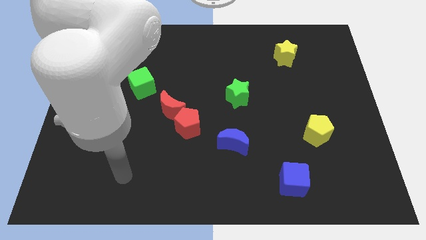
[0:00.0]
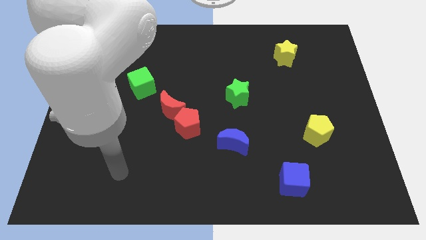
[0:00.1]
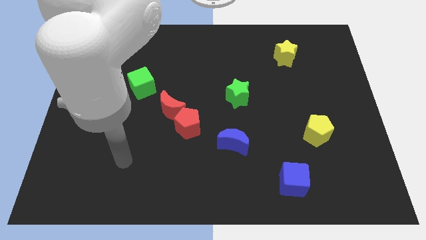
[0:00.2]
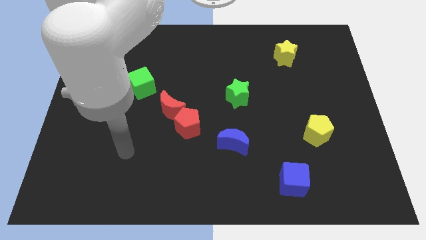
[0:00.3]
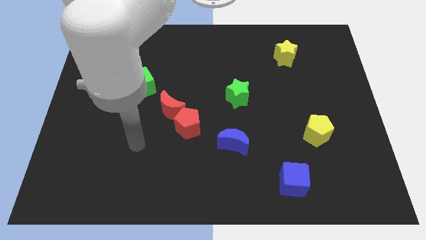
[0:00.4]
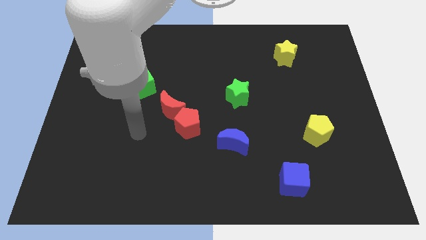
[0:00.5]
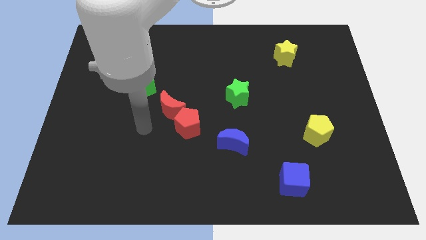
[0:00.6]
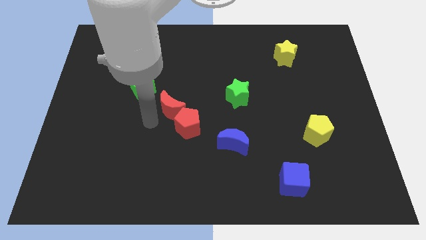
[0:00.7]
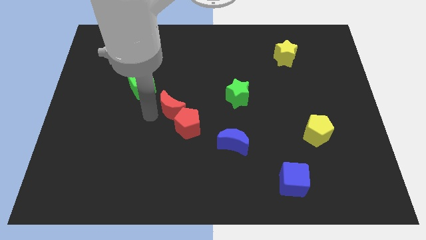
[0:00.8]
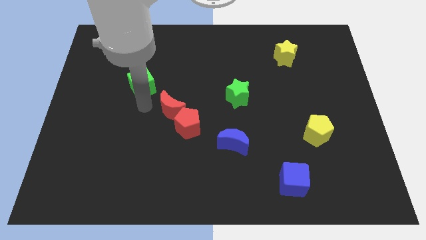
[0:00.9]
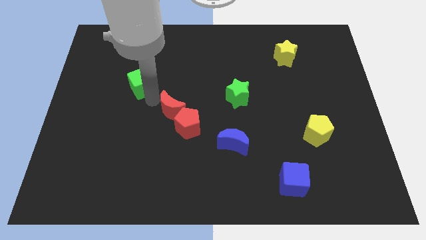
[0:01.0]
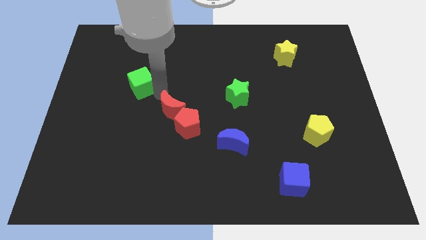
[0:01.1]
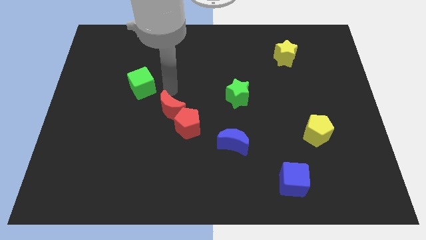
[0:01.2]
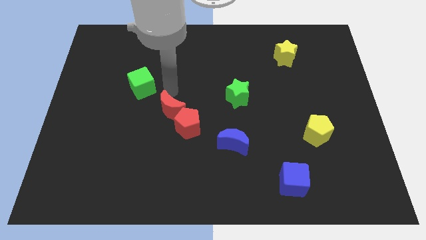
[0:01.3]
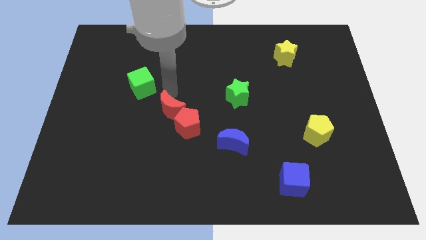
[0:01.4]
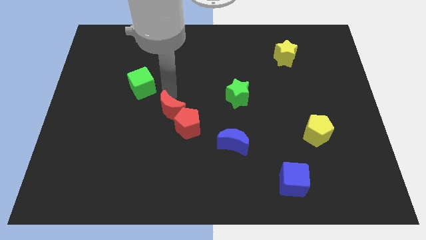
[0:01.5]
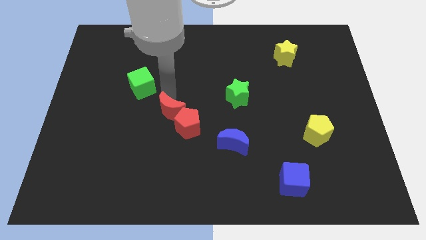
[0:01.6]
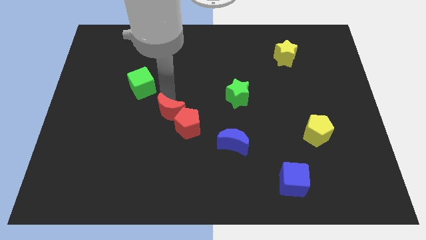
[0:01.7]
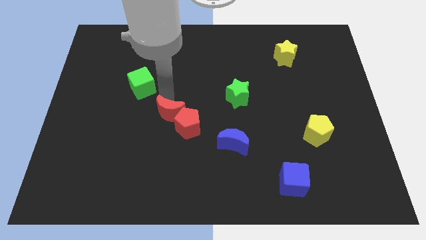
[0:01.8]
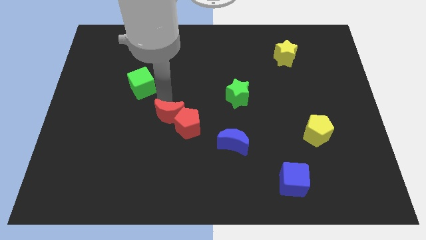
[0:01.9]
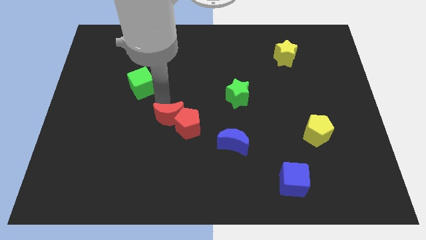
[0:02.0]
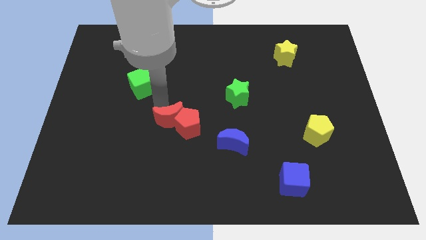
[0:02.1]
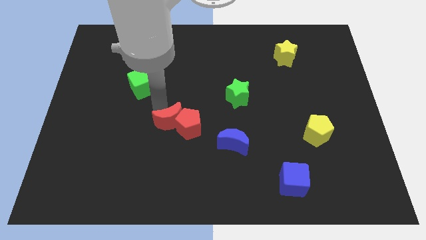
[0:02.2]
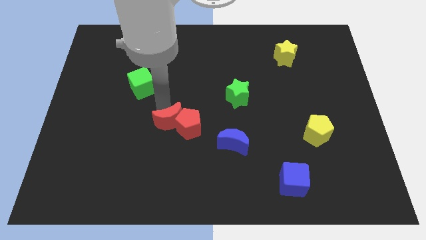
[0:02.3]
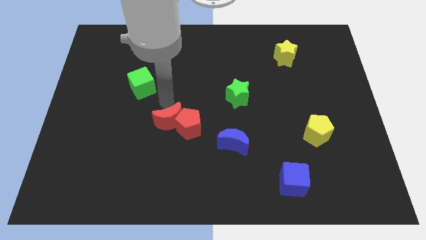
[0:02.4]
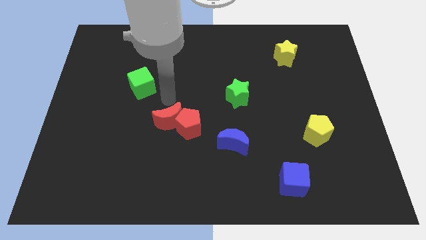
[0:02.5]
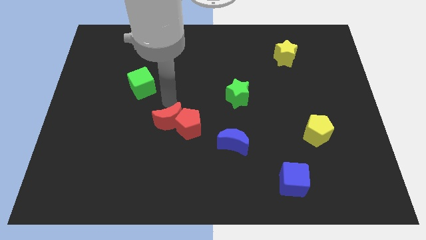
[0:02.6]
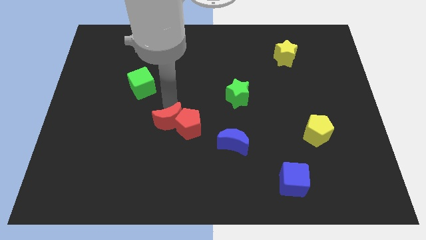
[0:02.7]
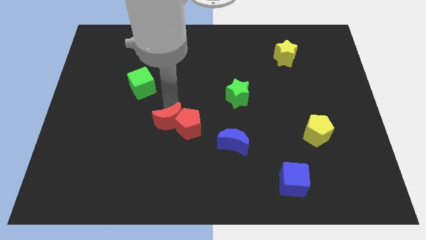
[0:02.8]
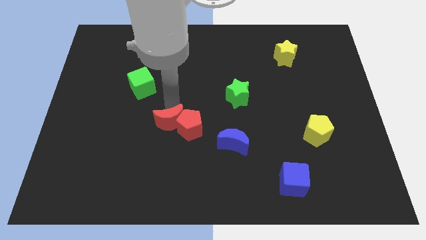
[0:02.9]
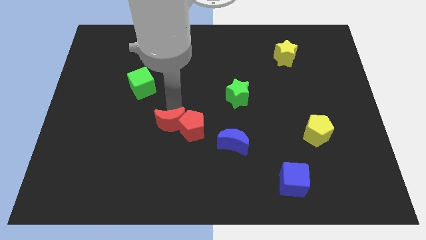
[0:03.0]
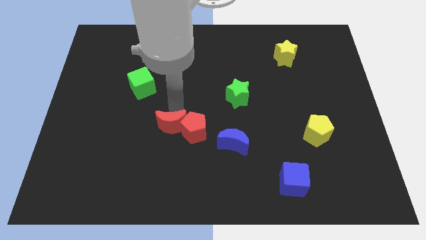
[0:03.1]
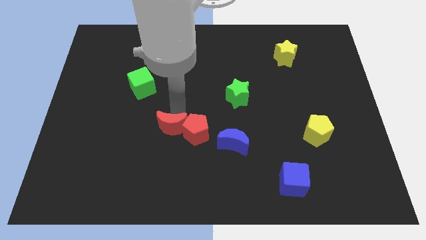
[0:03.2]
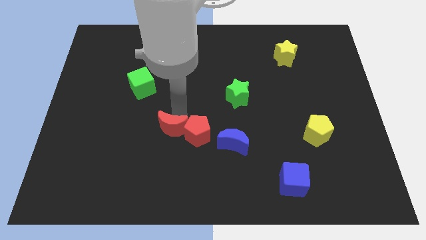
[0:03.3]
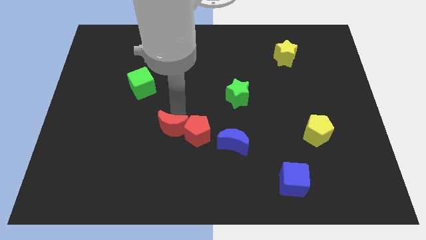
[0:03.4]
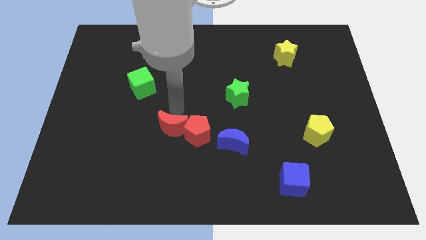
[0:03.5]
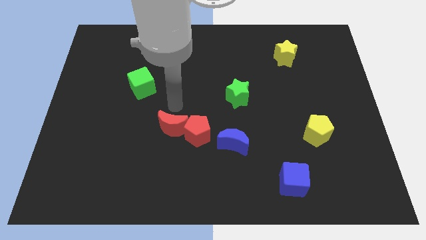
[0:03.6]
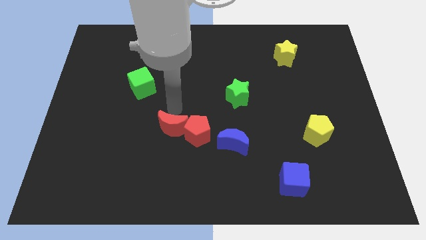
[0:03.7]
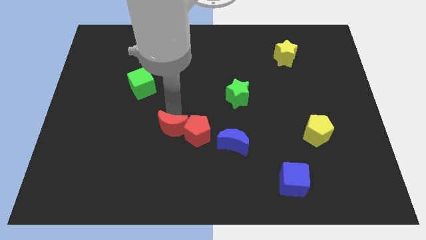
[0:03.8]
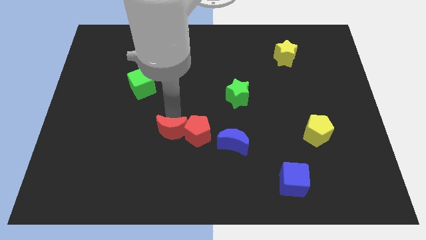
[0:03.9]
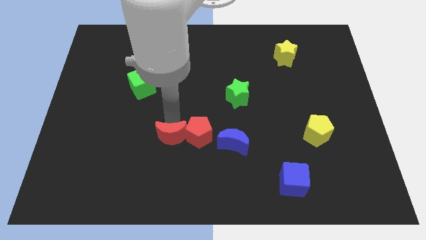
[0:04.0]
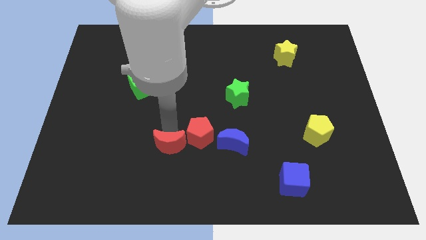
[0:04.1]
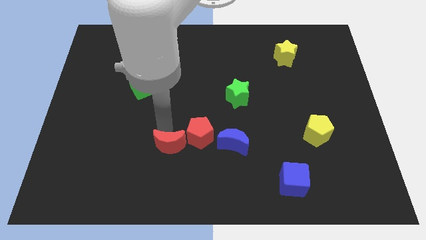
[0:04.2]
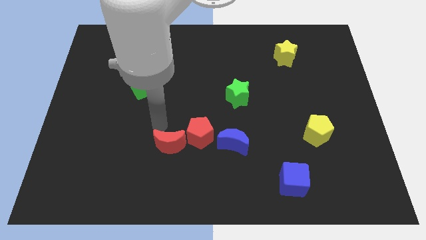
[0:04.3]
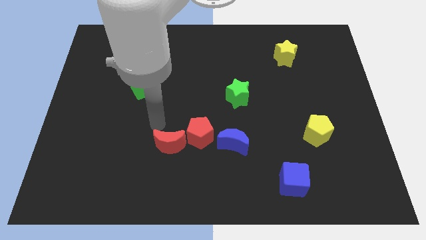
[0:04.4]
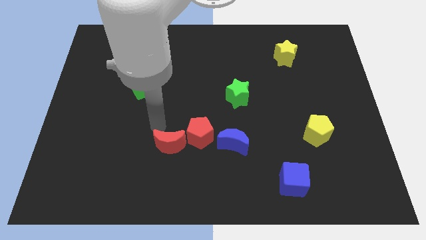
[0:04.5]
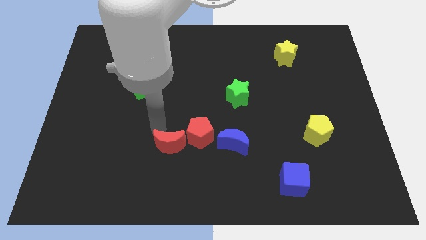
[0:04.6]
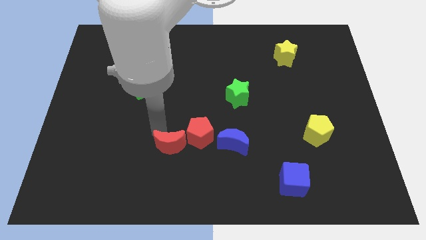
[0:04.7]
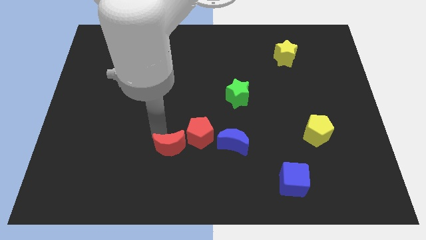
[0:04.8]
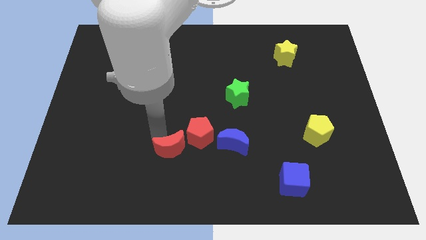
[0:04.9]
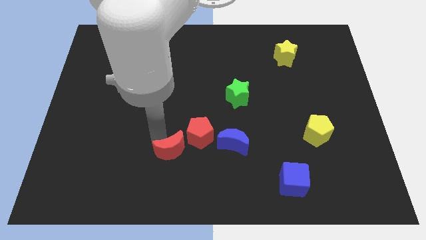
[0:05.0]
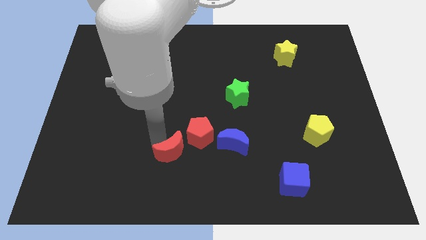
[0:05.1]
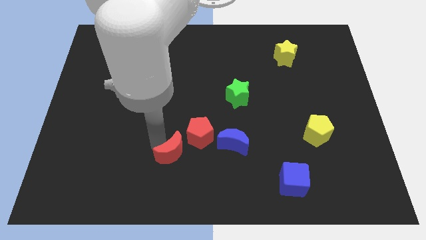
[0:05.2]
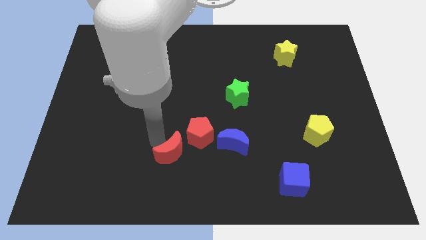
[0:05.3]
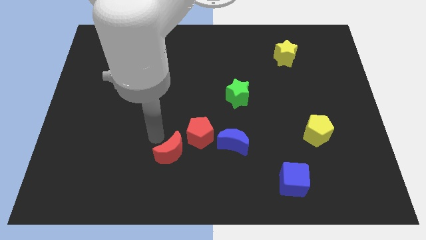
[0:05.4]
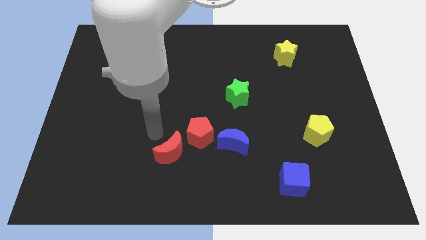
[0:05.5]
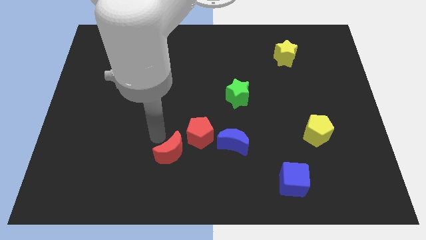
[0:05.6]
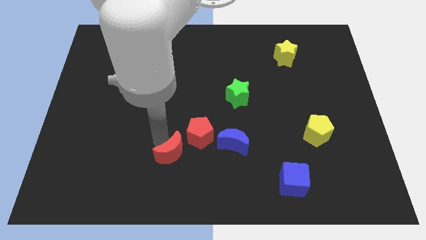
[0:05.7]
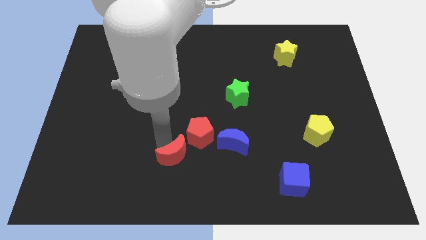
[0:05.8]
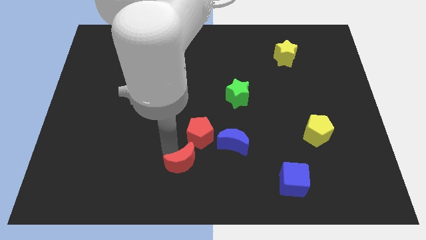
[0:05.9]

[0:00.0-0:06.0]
move the red moon to the bottom side
